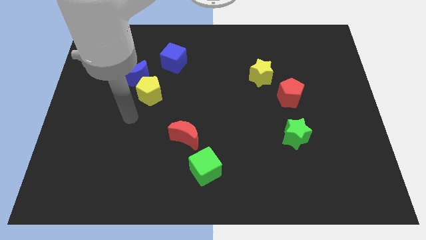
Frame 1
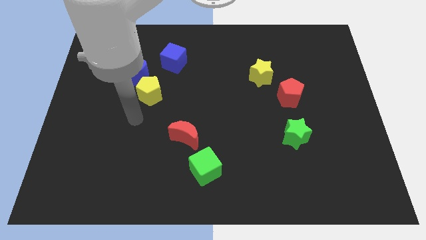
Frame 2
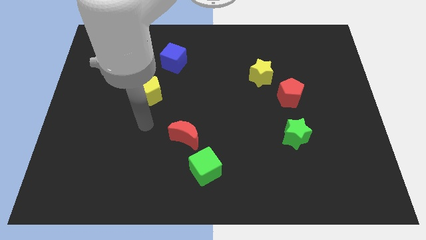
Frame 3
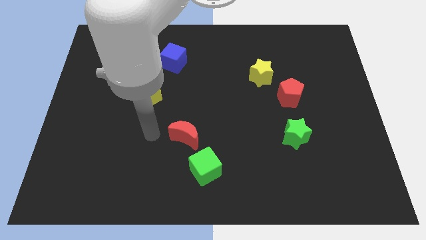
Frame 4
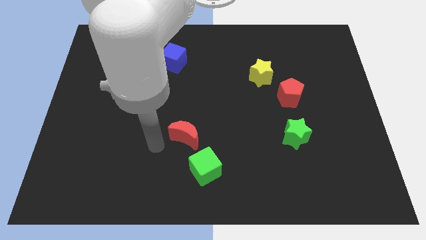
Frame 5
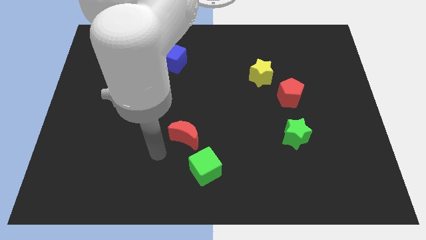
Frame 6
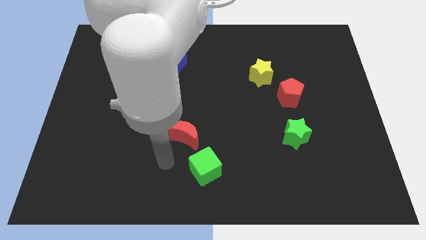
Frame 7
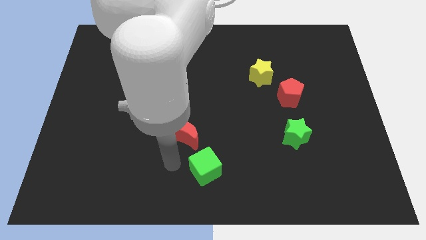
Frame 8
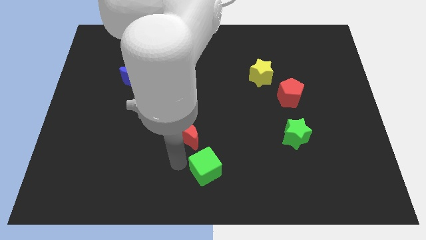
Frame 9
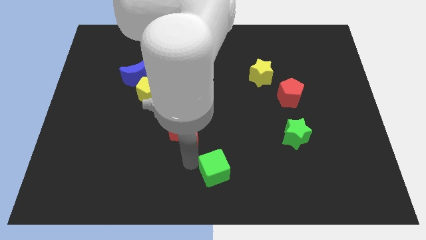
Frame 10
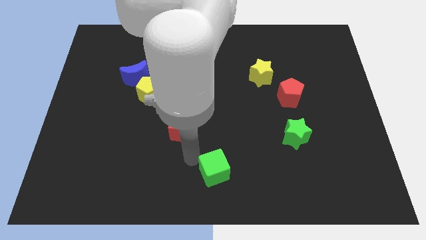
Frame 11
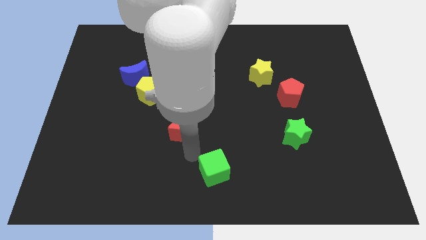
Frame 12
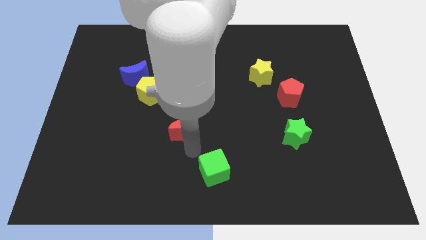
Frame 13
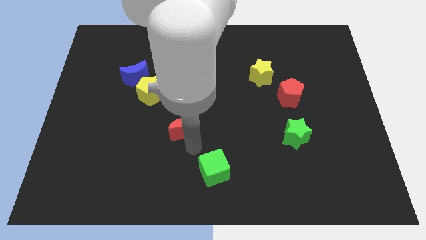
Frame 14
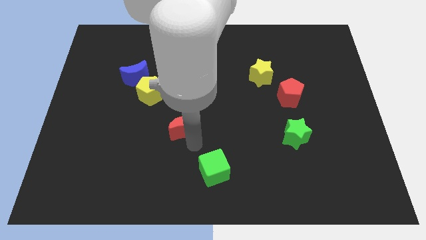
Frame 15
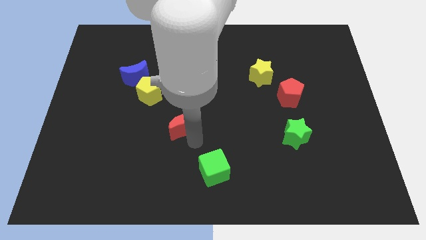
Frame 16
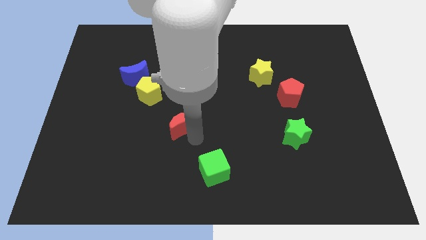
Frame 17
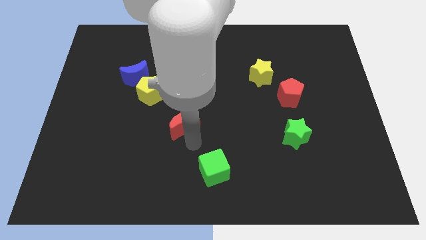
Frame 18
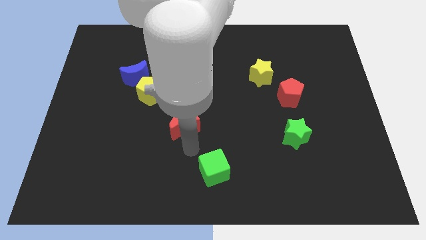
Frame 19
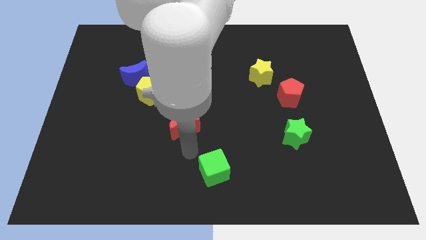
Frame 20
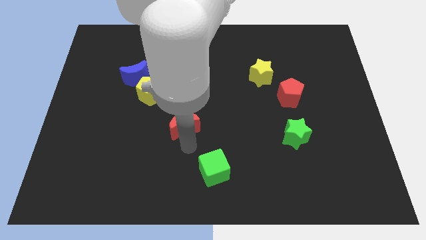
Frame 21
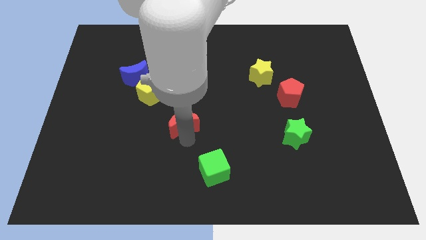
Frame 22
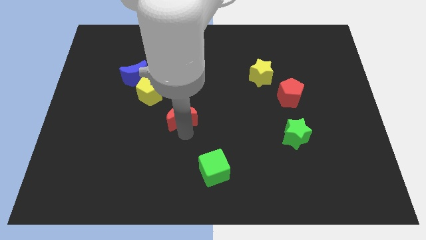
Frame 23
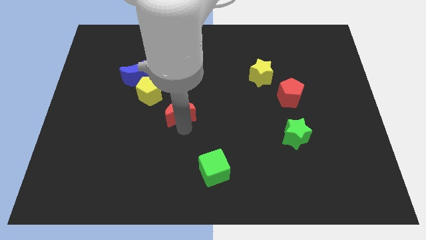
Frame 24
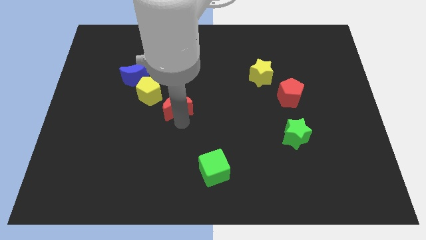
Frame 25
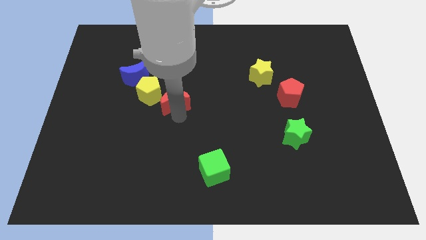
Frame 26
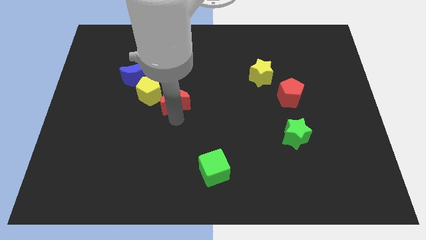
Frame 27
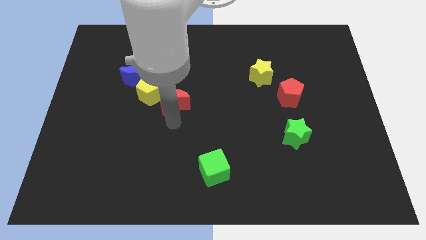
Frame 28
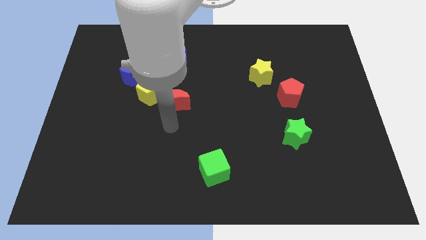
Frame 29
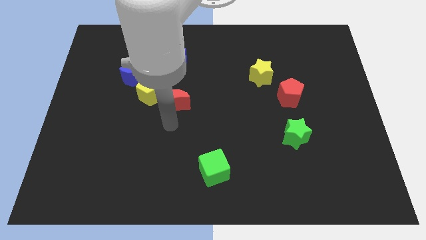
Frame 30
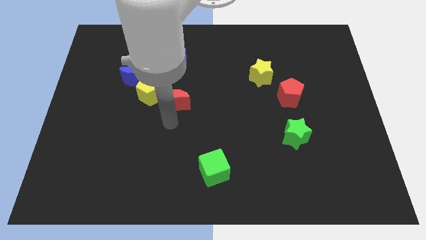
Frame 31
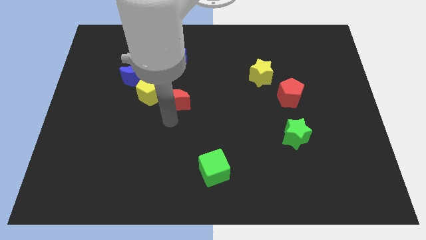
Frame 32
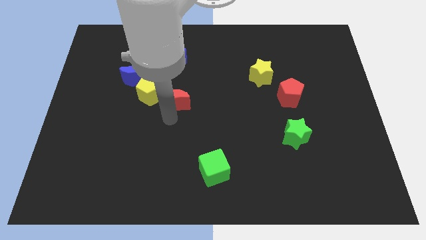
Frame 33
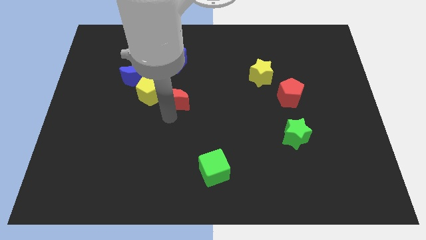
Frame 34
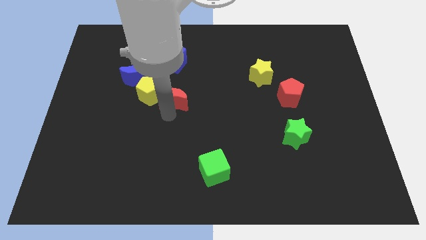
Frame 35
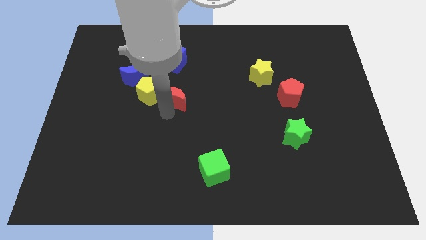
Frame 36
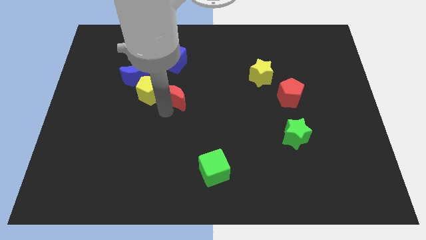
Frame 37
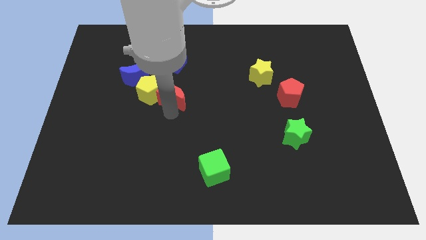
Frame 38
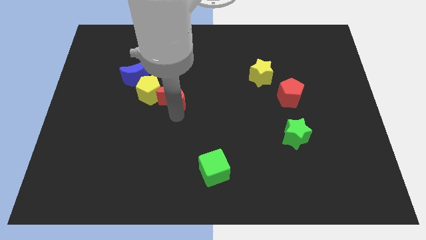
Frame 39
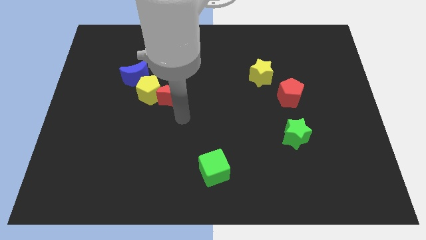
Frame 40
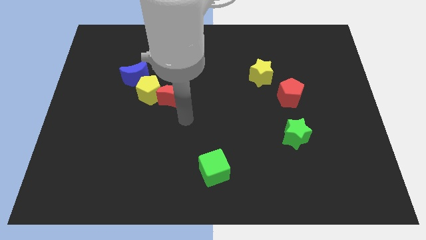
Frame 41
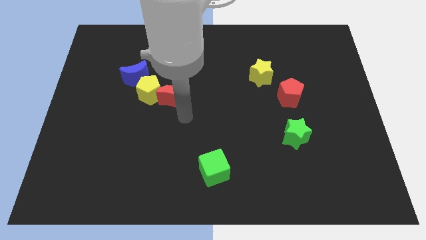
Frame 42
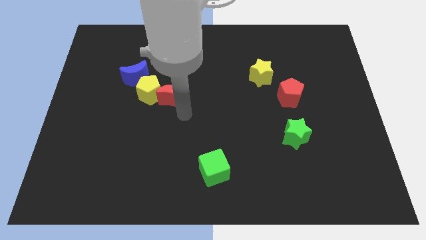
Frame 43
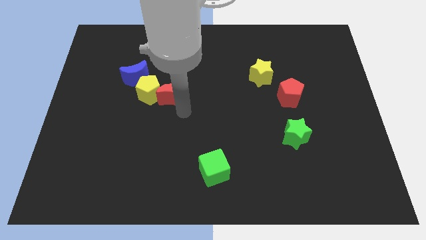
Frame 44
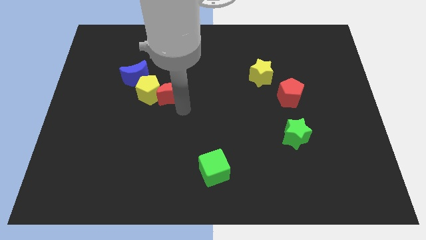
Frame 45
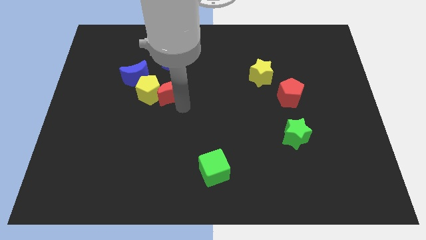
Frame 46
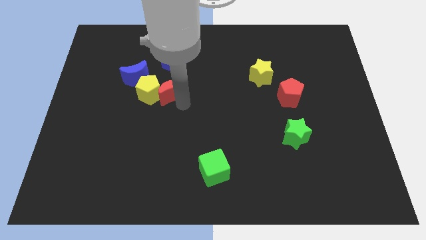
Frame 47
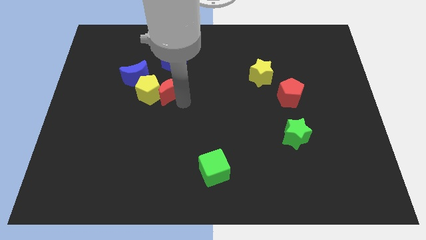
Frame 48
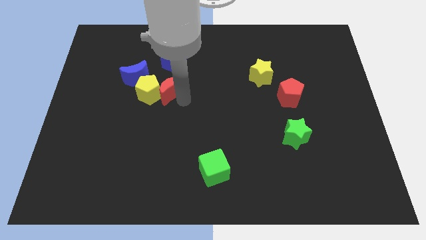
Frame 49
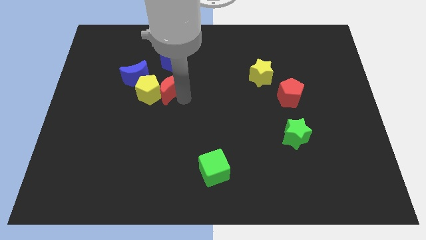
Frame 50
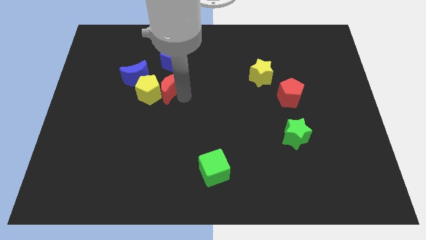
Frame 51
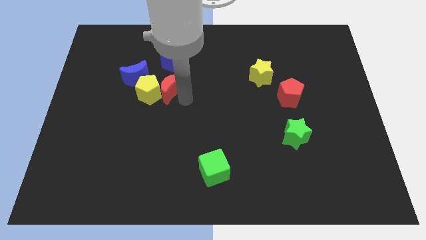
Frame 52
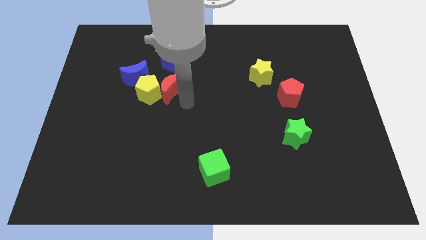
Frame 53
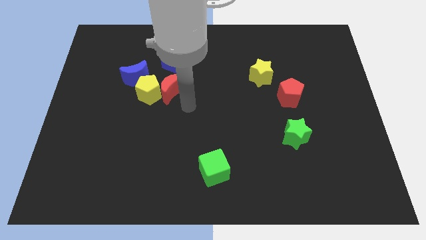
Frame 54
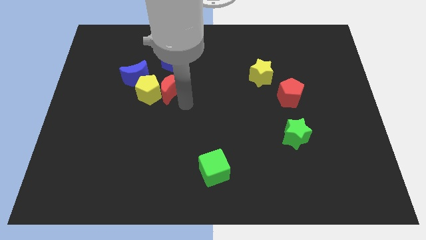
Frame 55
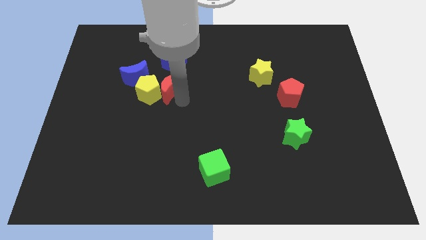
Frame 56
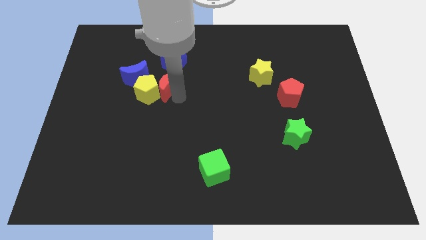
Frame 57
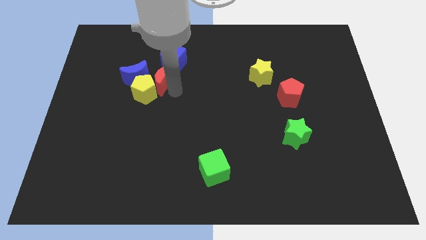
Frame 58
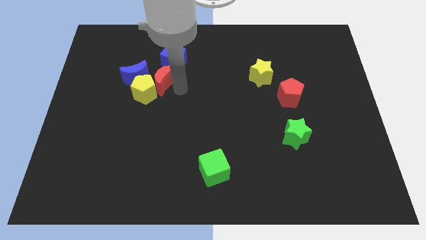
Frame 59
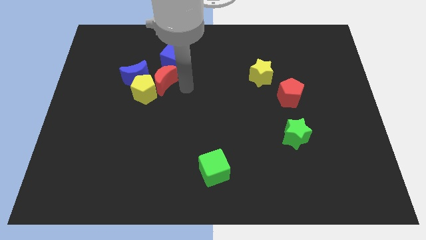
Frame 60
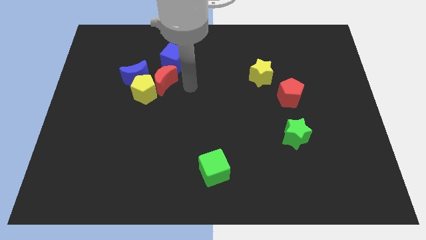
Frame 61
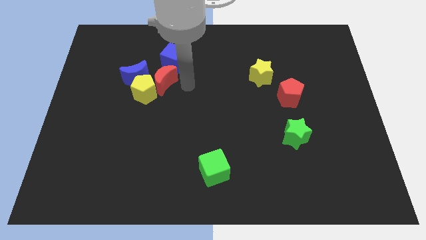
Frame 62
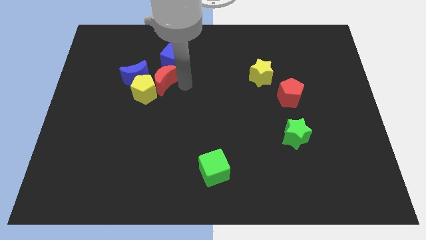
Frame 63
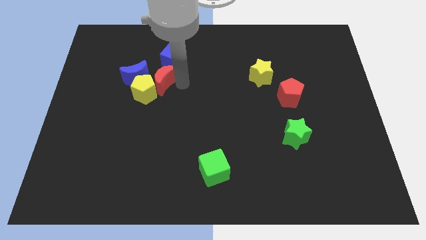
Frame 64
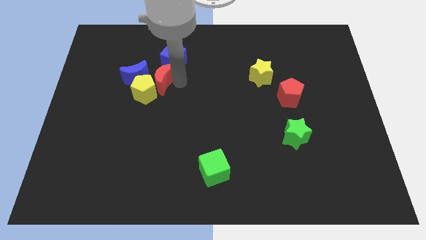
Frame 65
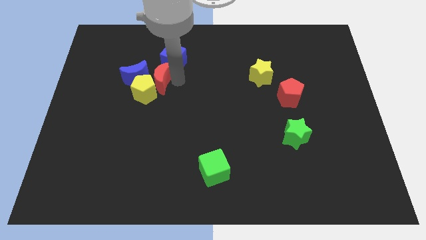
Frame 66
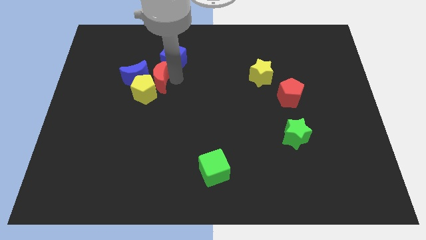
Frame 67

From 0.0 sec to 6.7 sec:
move the red moon next to the blue moon
